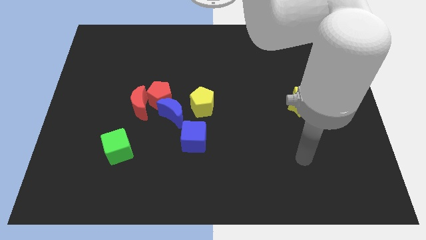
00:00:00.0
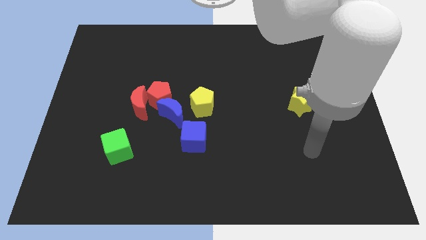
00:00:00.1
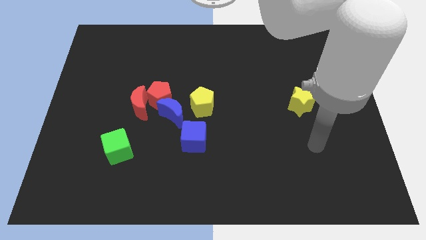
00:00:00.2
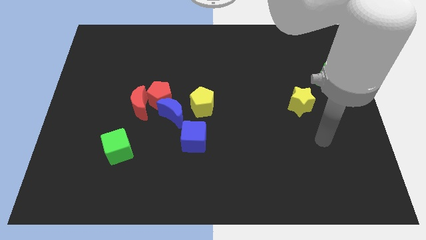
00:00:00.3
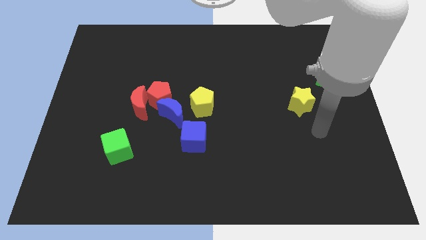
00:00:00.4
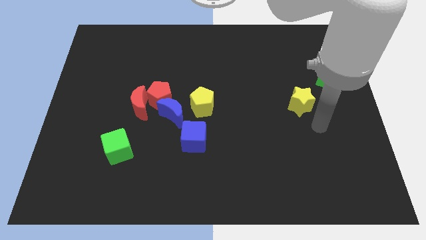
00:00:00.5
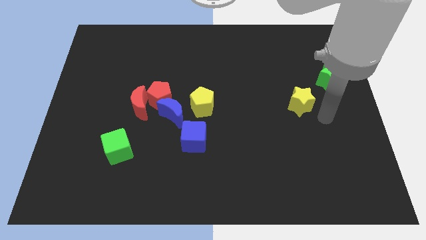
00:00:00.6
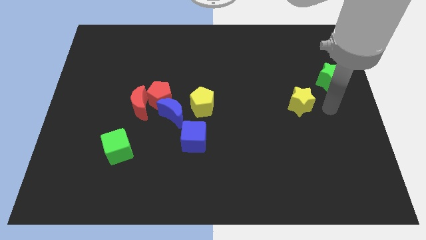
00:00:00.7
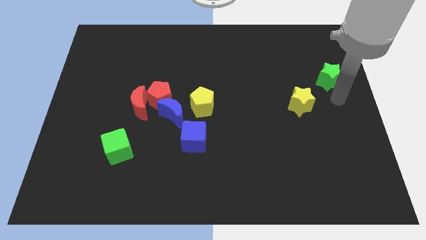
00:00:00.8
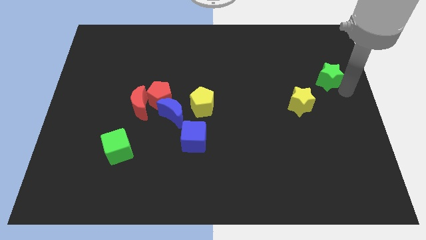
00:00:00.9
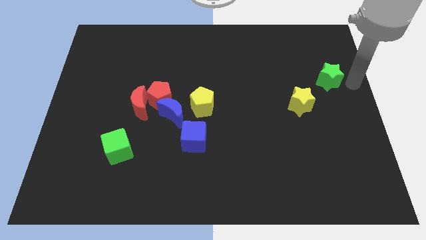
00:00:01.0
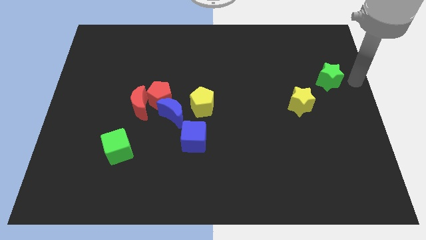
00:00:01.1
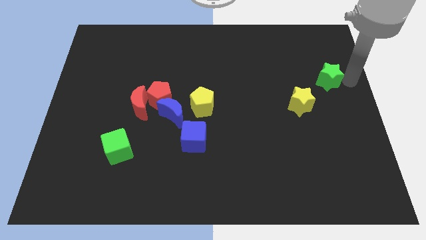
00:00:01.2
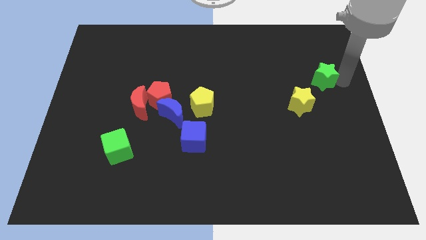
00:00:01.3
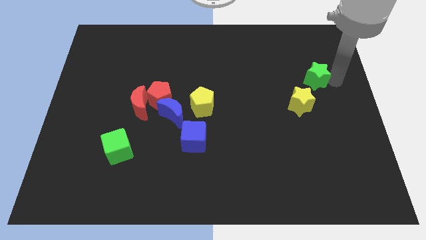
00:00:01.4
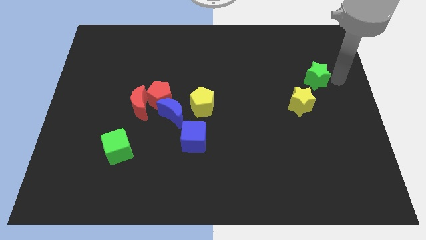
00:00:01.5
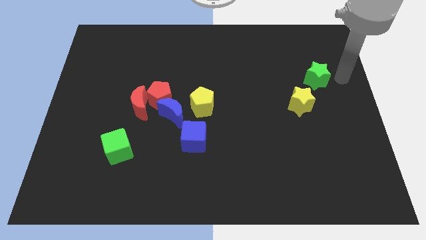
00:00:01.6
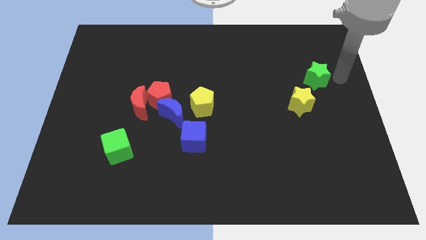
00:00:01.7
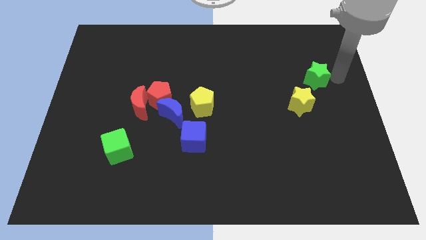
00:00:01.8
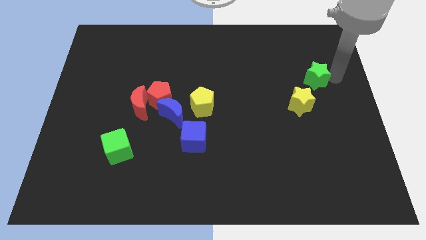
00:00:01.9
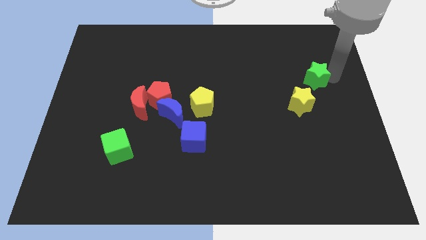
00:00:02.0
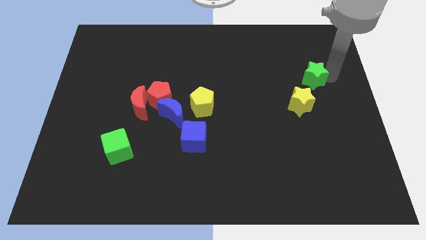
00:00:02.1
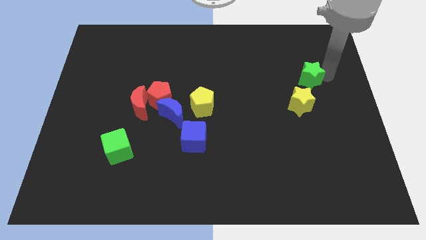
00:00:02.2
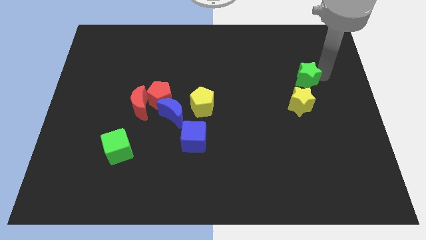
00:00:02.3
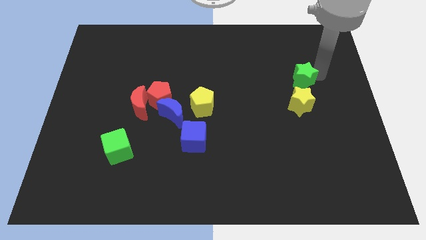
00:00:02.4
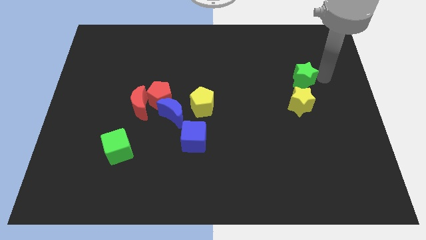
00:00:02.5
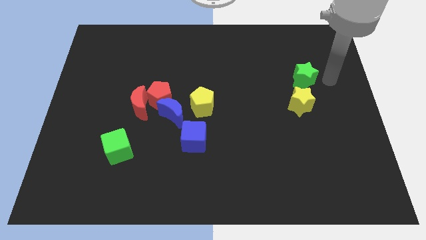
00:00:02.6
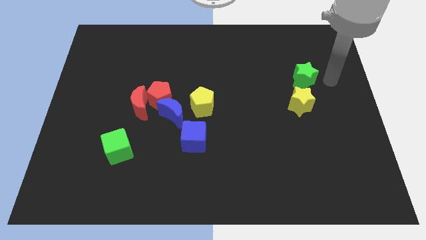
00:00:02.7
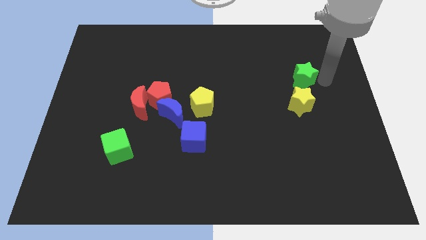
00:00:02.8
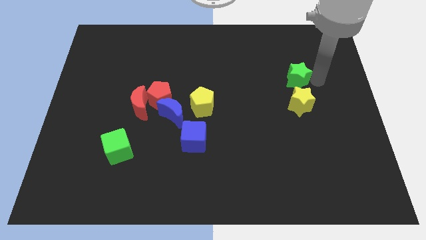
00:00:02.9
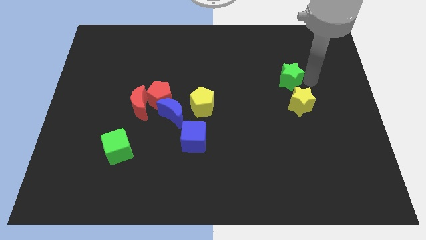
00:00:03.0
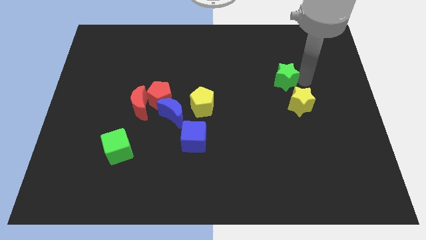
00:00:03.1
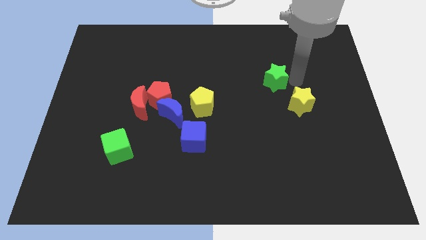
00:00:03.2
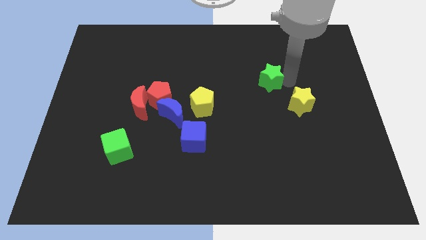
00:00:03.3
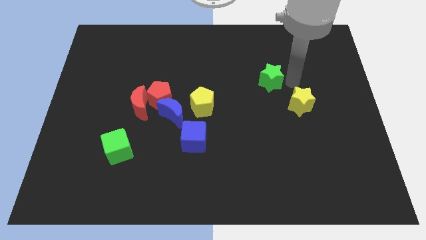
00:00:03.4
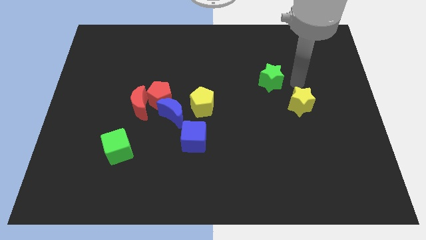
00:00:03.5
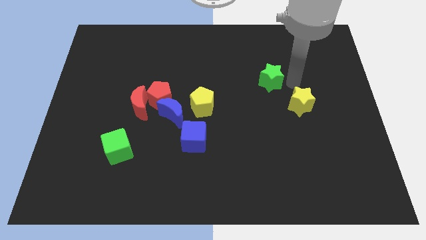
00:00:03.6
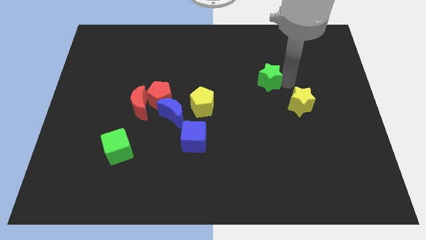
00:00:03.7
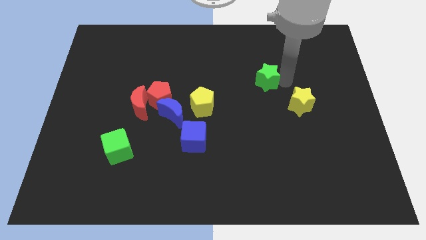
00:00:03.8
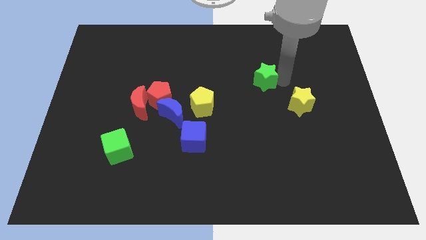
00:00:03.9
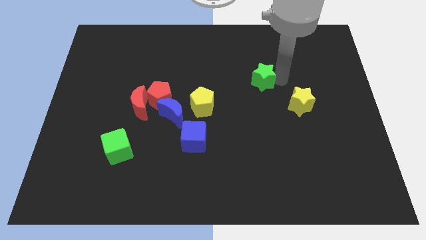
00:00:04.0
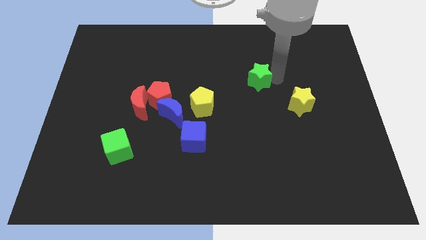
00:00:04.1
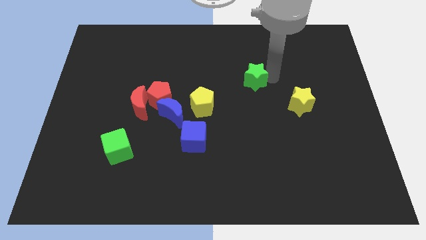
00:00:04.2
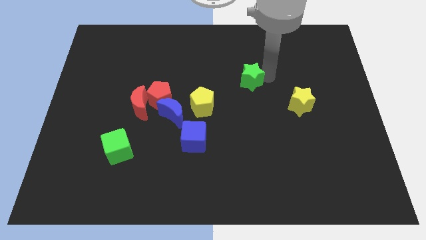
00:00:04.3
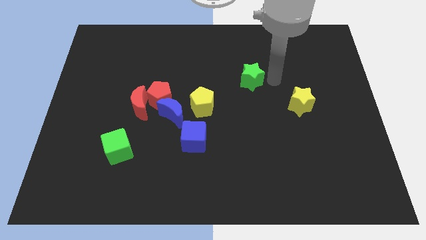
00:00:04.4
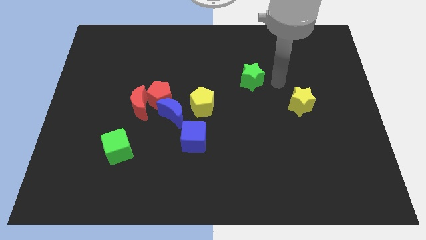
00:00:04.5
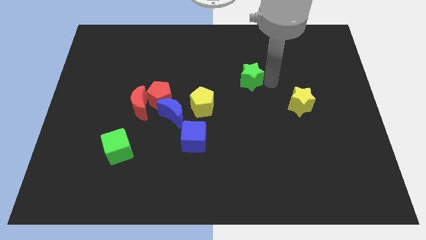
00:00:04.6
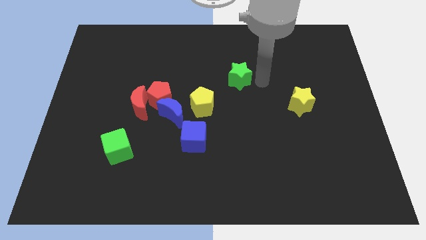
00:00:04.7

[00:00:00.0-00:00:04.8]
push the green star left

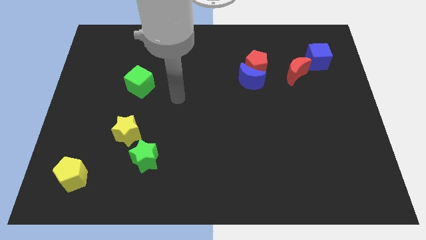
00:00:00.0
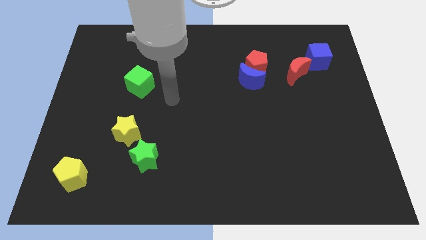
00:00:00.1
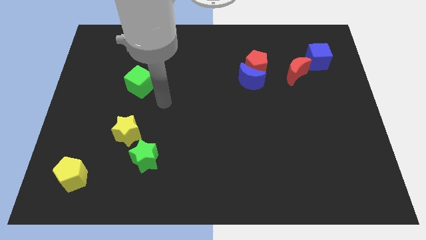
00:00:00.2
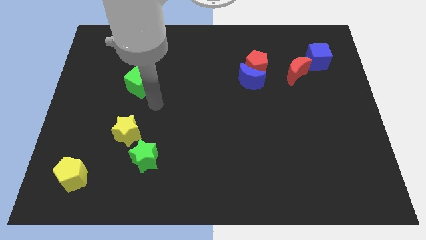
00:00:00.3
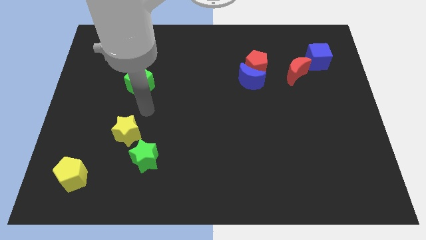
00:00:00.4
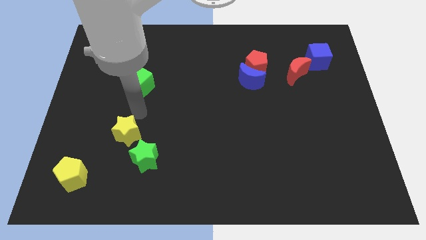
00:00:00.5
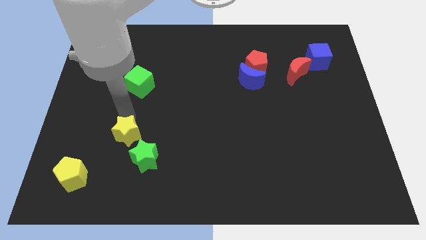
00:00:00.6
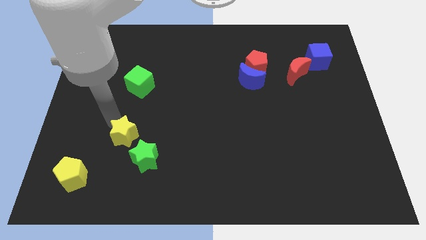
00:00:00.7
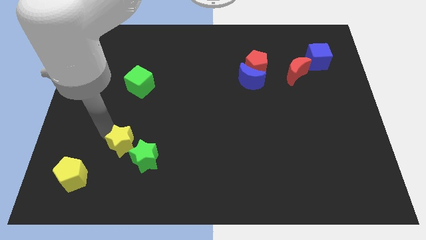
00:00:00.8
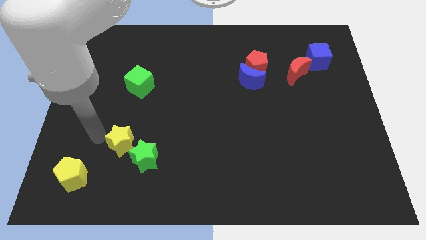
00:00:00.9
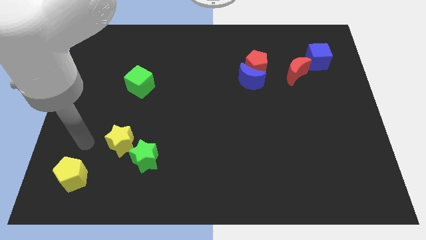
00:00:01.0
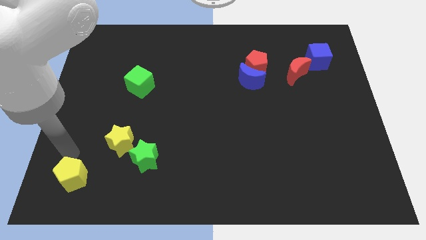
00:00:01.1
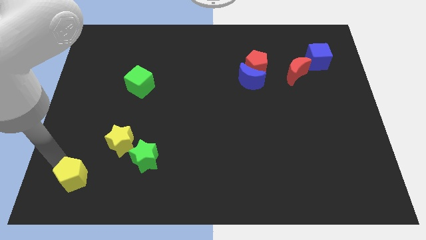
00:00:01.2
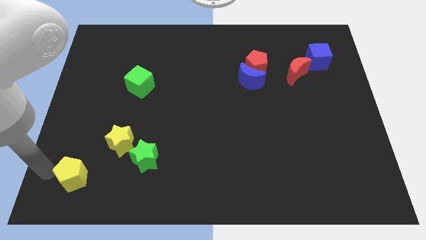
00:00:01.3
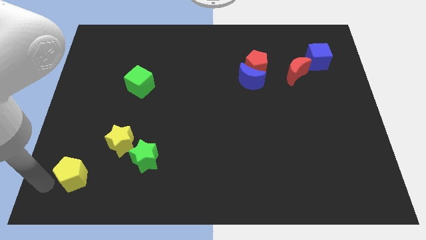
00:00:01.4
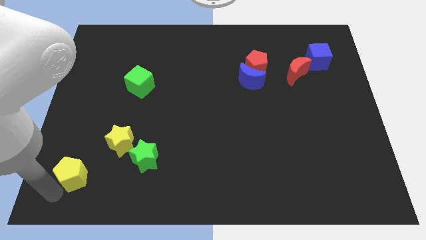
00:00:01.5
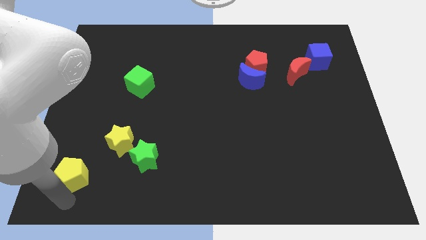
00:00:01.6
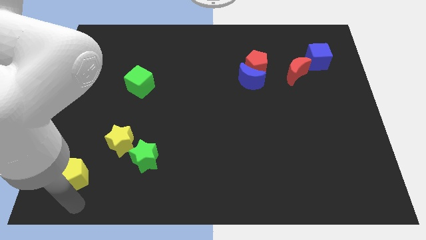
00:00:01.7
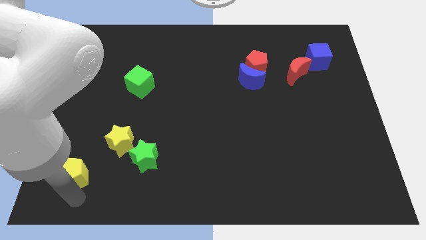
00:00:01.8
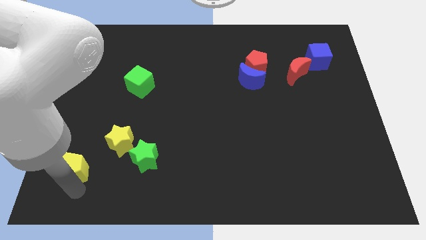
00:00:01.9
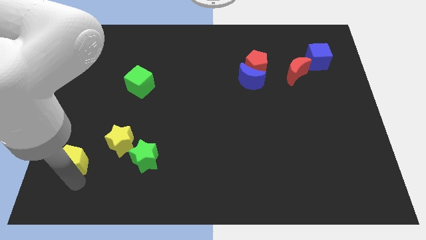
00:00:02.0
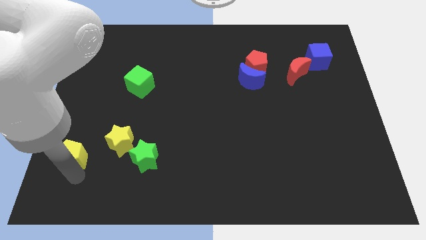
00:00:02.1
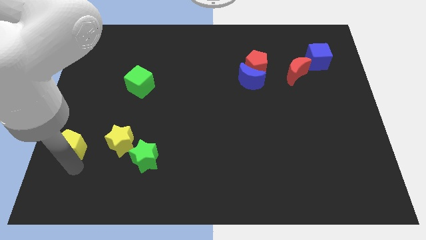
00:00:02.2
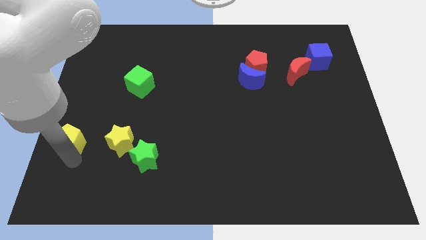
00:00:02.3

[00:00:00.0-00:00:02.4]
push the yellow pentagon up a bit

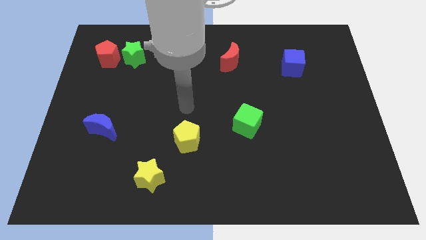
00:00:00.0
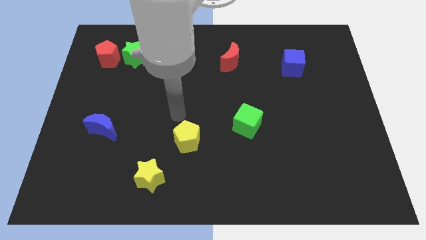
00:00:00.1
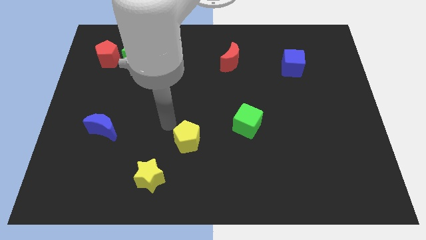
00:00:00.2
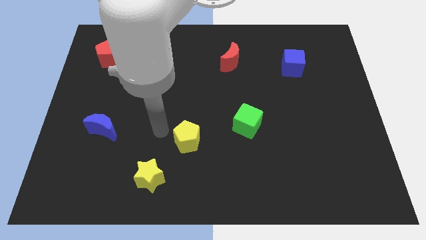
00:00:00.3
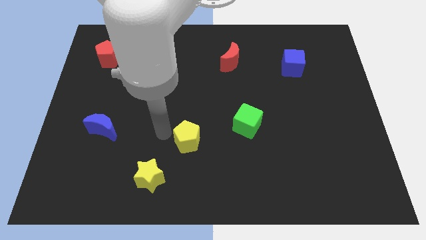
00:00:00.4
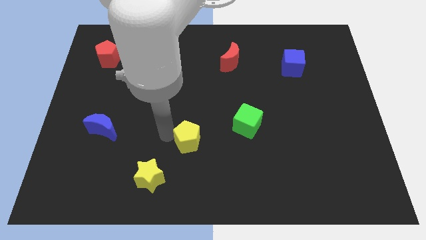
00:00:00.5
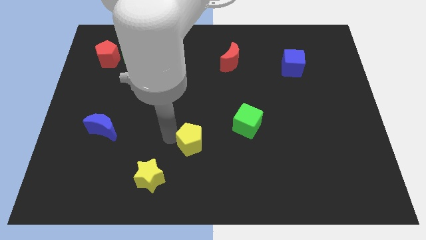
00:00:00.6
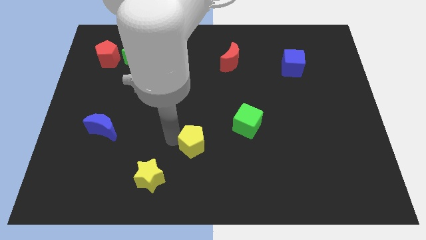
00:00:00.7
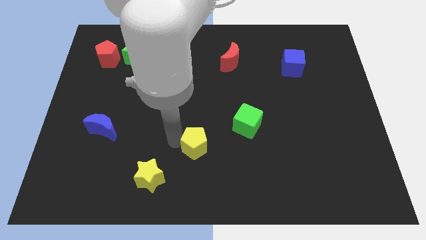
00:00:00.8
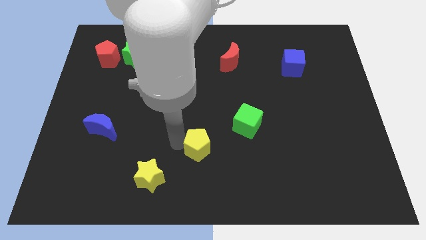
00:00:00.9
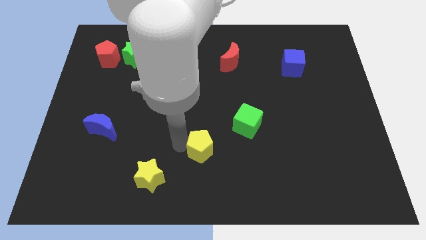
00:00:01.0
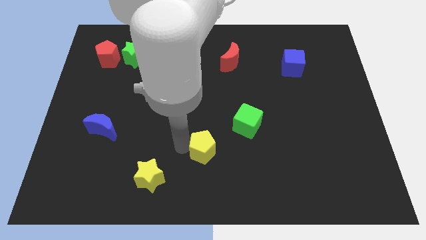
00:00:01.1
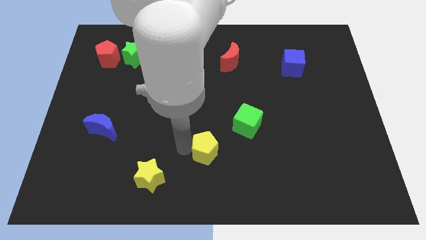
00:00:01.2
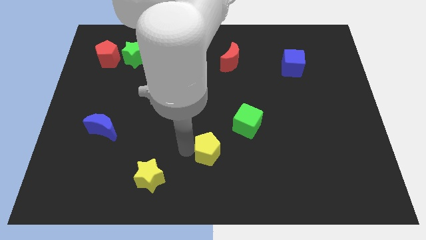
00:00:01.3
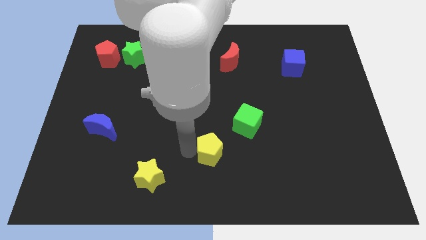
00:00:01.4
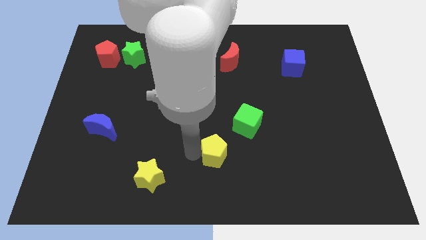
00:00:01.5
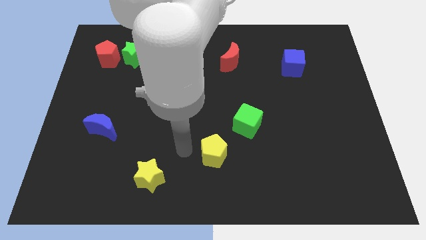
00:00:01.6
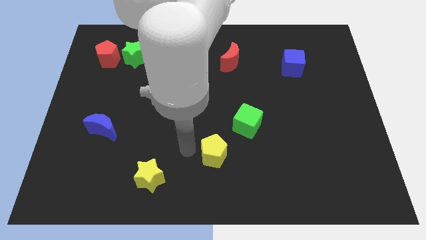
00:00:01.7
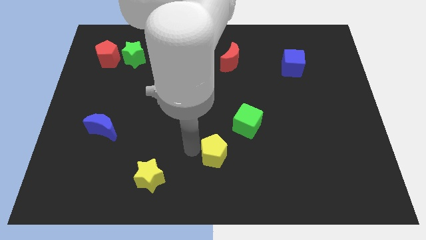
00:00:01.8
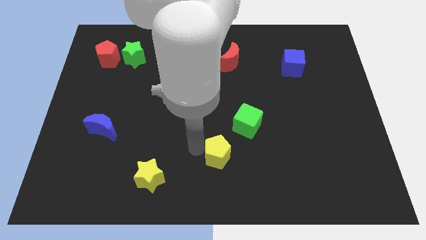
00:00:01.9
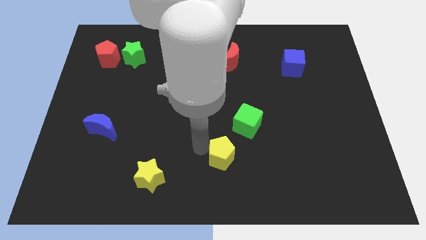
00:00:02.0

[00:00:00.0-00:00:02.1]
move the yellow pentagon right somewhat
